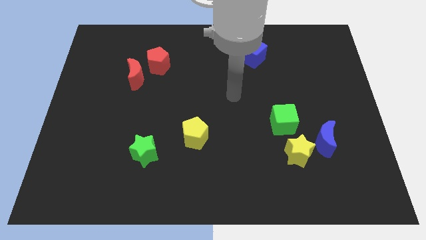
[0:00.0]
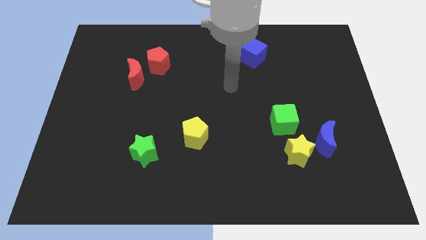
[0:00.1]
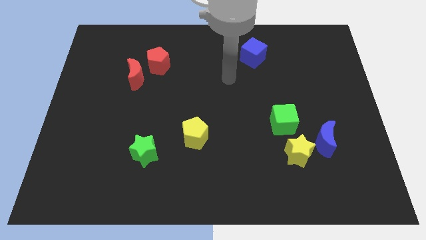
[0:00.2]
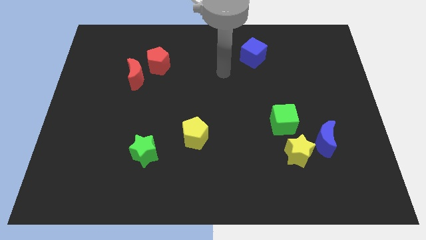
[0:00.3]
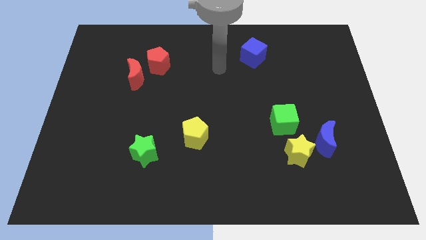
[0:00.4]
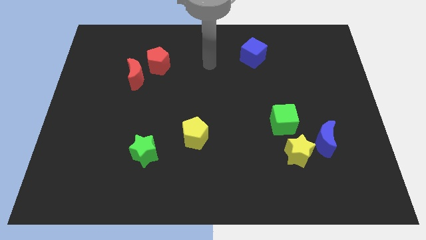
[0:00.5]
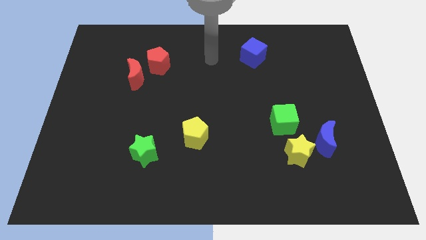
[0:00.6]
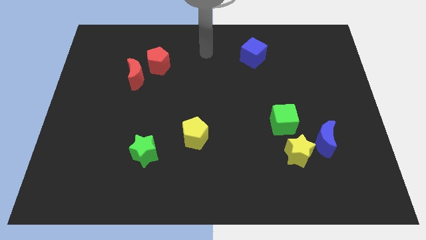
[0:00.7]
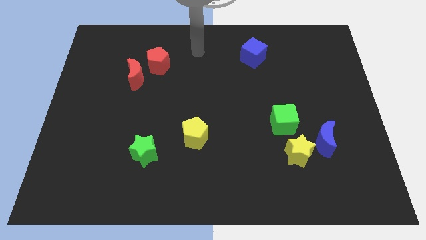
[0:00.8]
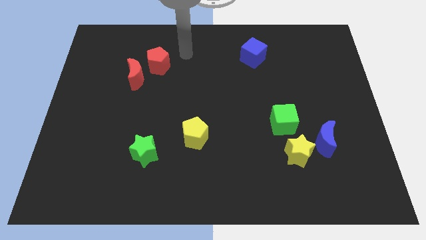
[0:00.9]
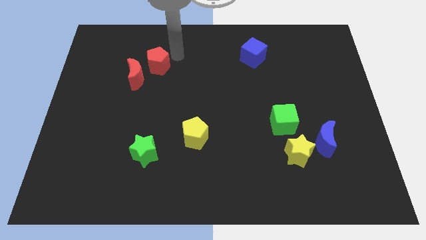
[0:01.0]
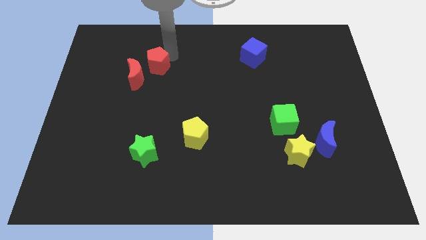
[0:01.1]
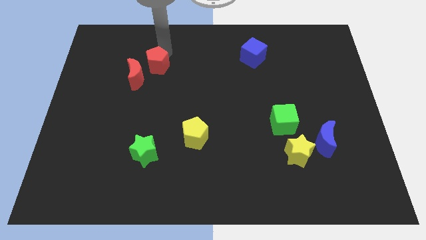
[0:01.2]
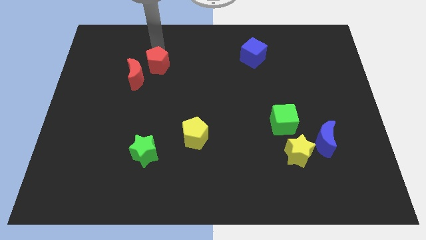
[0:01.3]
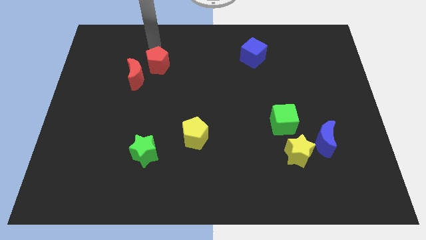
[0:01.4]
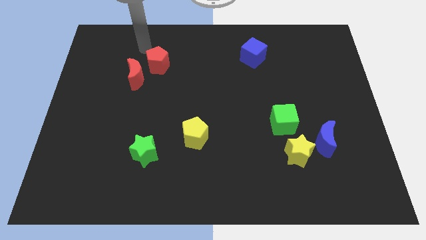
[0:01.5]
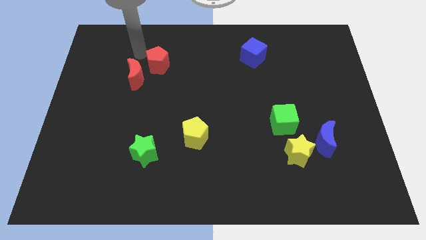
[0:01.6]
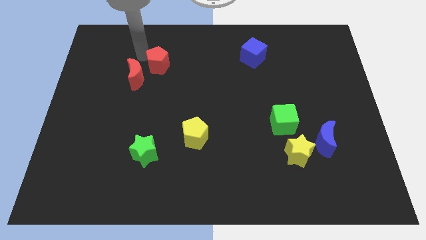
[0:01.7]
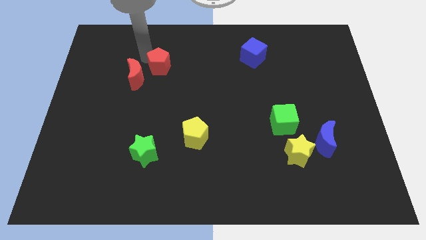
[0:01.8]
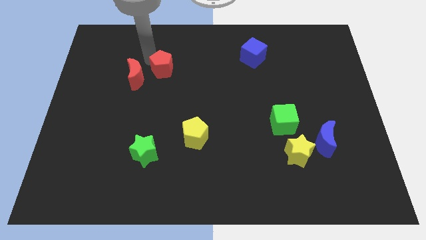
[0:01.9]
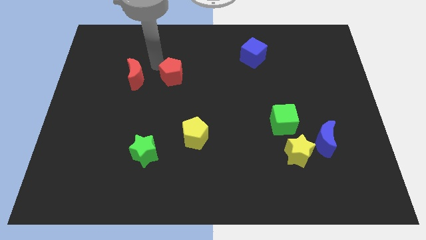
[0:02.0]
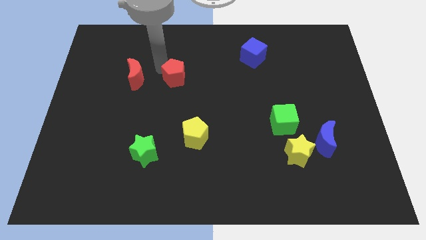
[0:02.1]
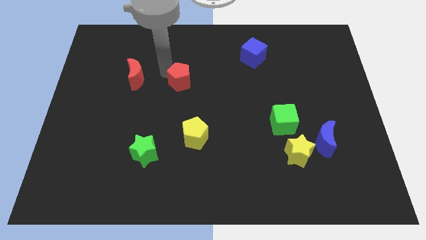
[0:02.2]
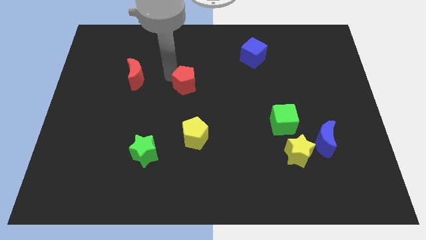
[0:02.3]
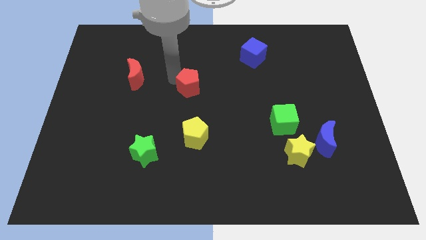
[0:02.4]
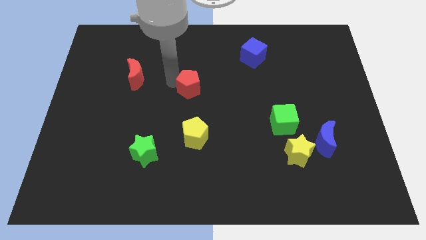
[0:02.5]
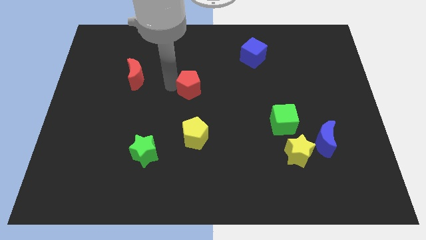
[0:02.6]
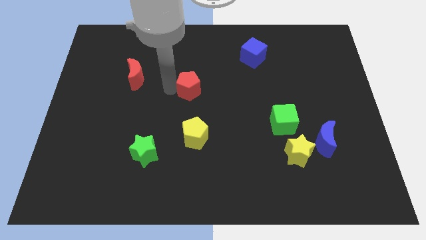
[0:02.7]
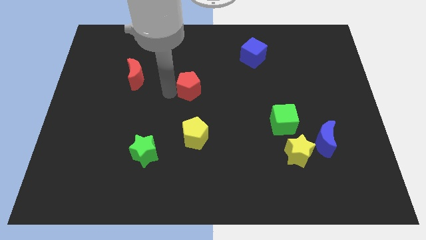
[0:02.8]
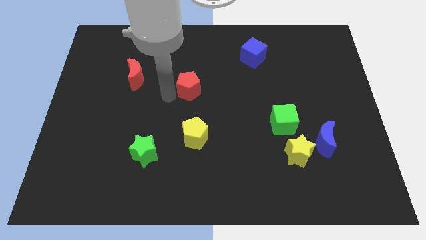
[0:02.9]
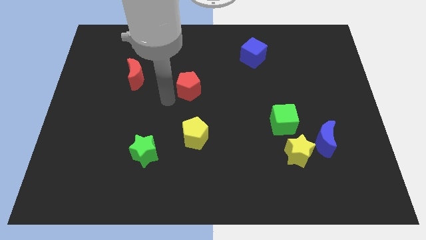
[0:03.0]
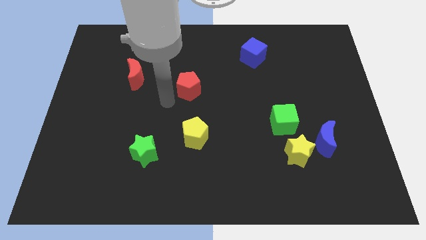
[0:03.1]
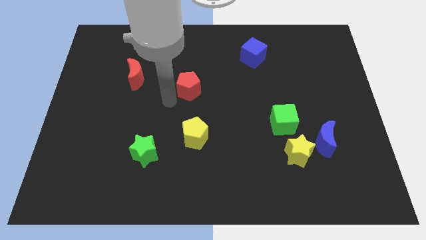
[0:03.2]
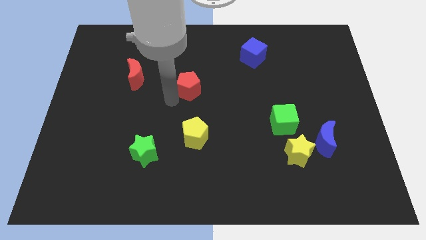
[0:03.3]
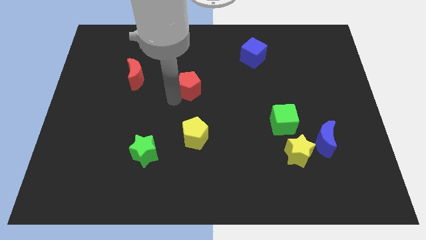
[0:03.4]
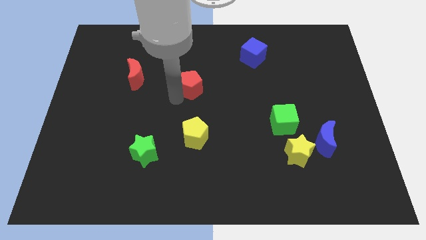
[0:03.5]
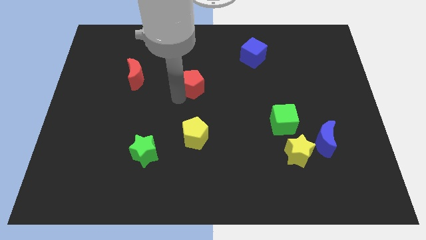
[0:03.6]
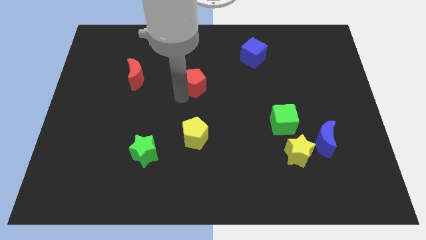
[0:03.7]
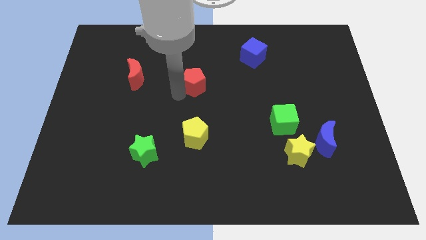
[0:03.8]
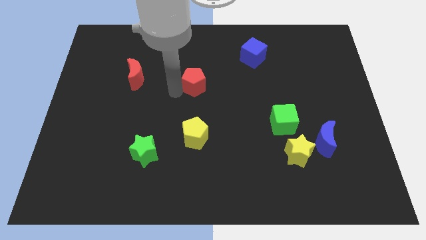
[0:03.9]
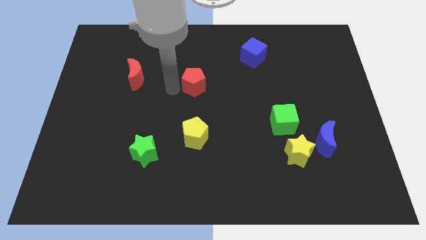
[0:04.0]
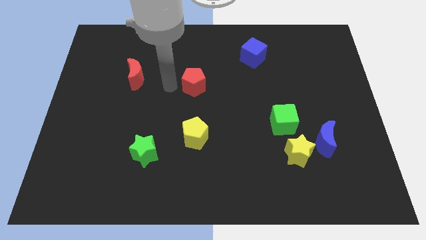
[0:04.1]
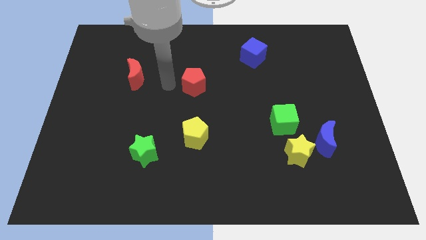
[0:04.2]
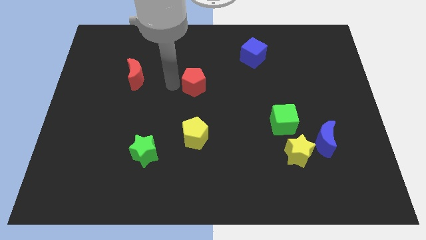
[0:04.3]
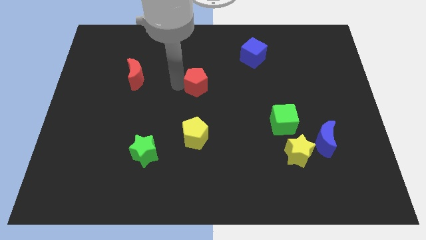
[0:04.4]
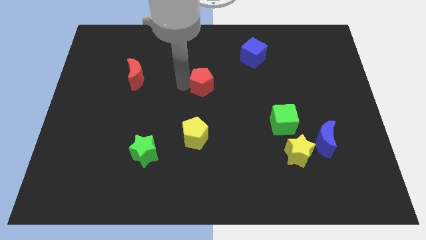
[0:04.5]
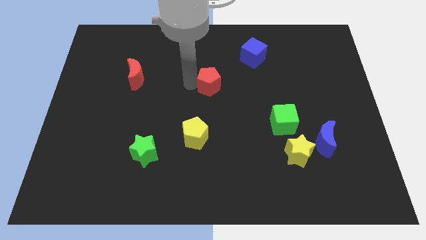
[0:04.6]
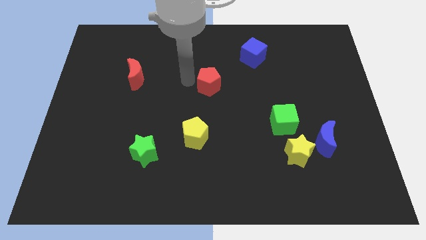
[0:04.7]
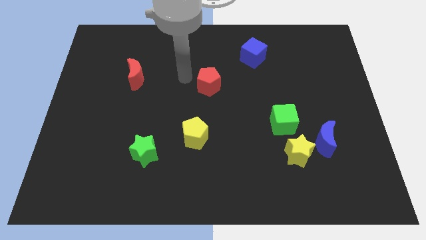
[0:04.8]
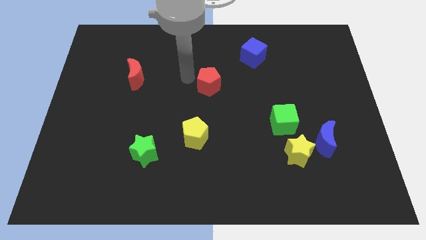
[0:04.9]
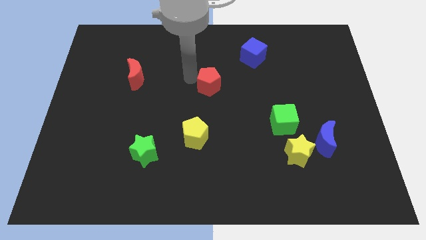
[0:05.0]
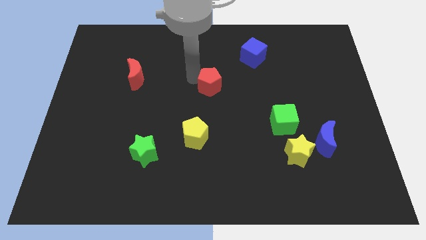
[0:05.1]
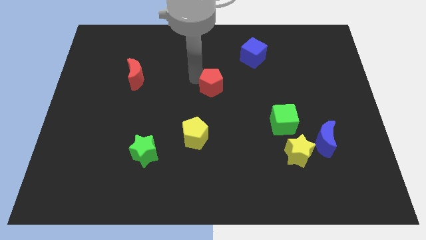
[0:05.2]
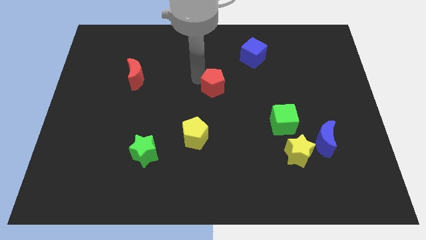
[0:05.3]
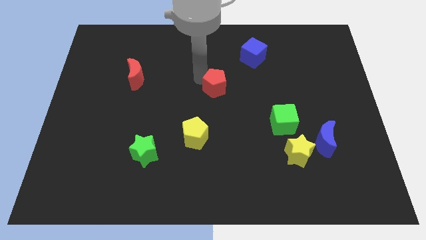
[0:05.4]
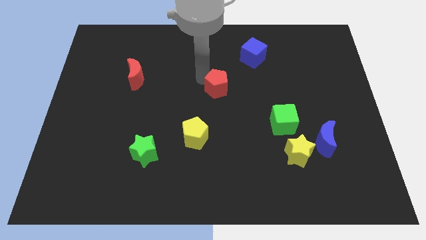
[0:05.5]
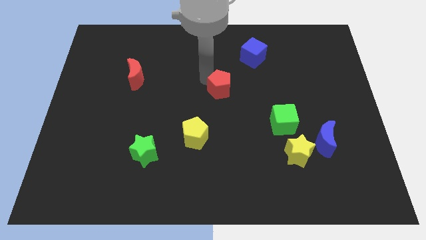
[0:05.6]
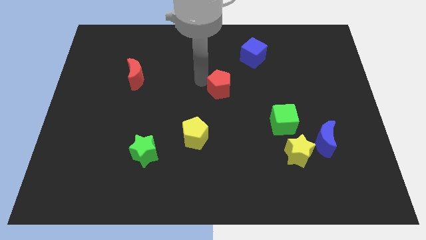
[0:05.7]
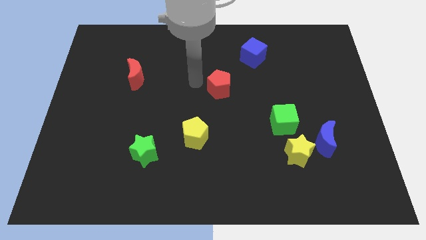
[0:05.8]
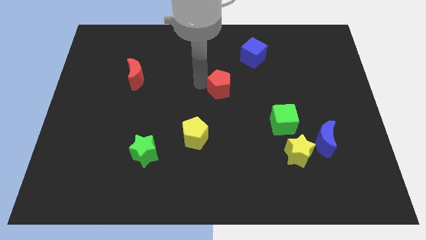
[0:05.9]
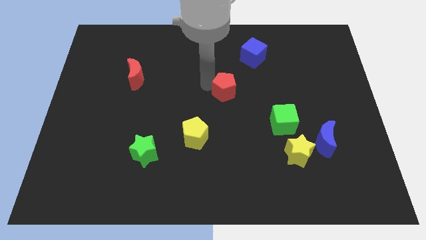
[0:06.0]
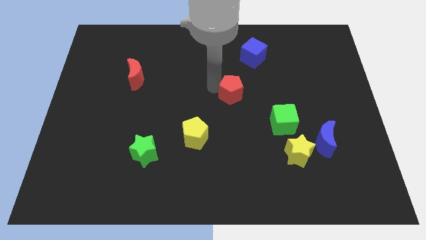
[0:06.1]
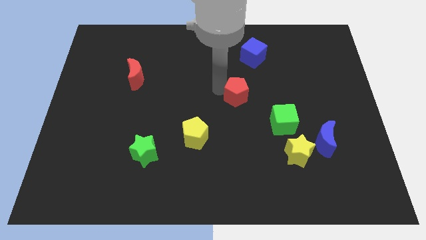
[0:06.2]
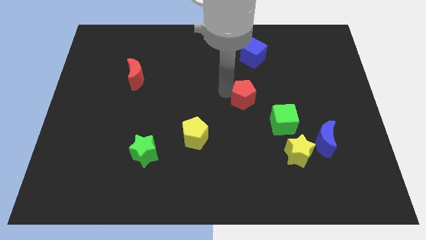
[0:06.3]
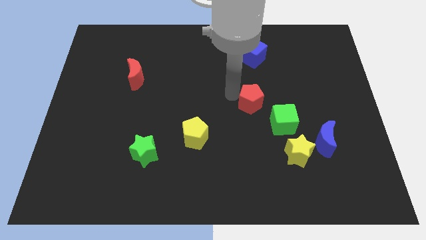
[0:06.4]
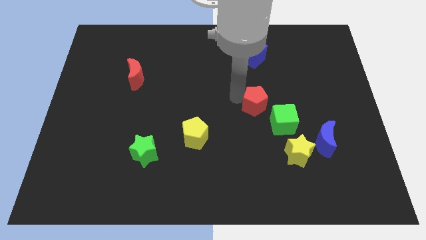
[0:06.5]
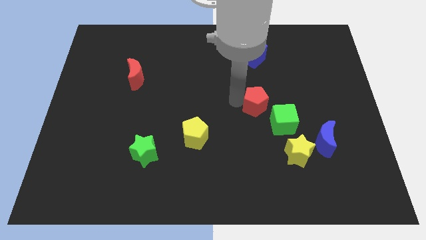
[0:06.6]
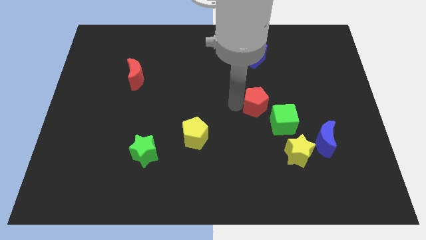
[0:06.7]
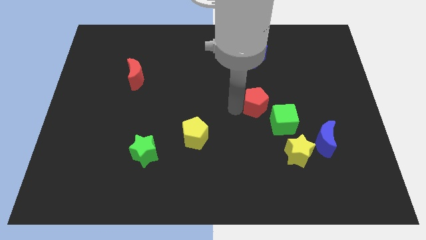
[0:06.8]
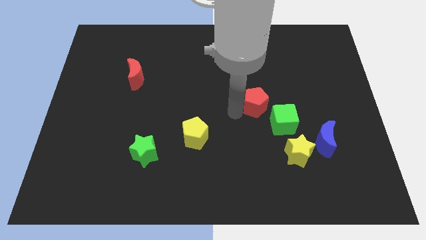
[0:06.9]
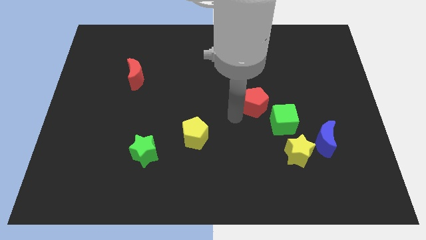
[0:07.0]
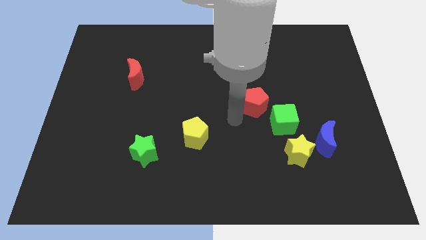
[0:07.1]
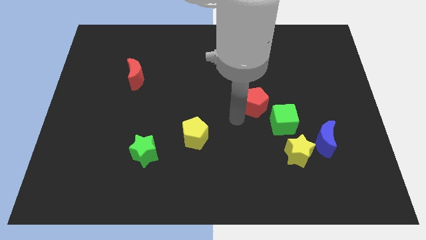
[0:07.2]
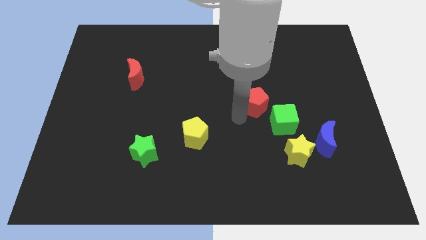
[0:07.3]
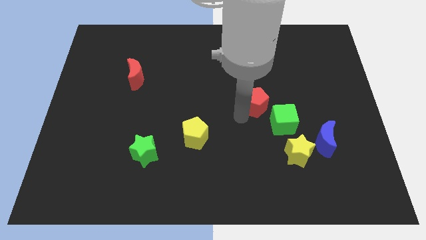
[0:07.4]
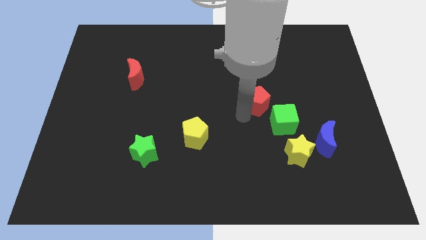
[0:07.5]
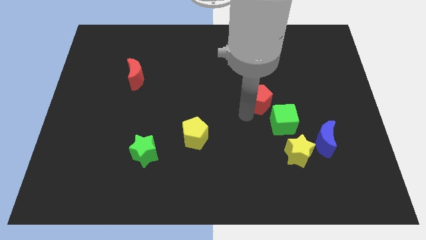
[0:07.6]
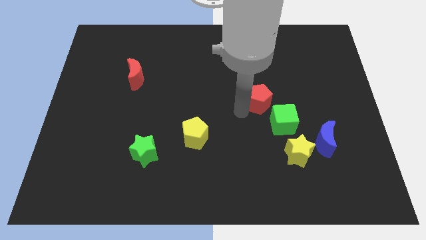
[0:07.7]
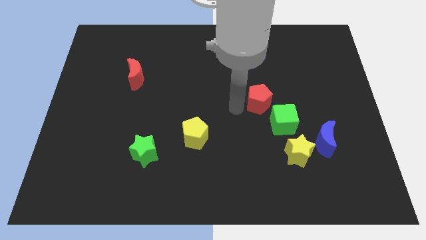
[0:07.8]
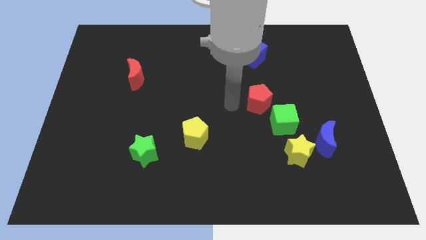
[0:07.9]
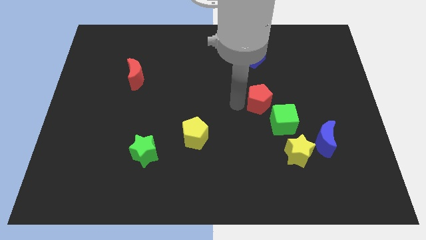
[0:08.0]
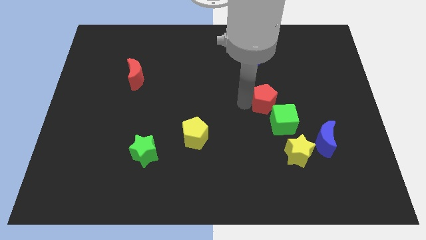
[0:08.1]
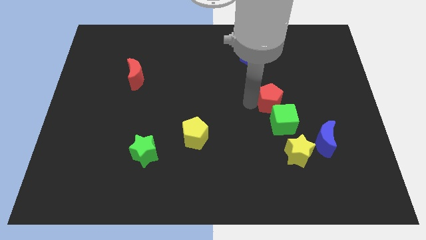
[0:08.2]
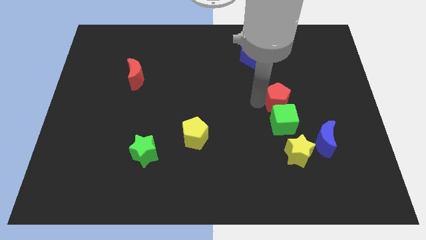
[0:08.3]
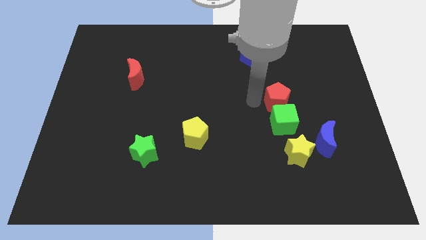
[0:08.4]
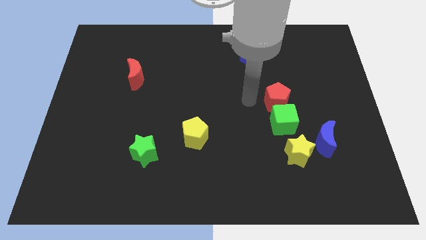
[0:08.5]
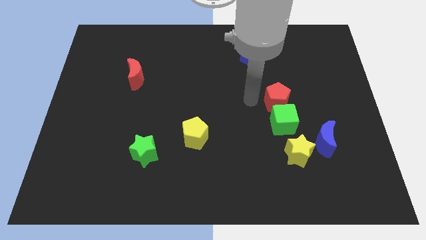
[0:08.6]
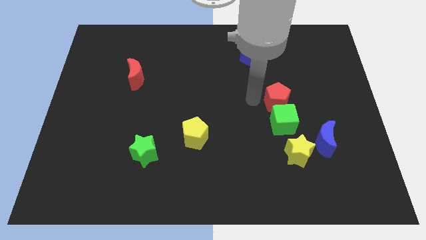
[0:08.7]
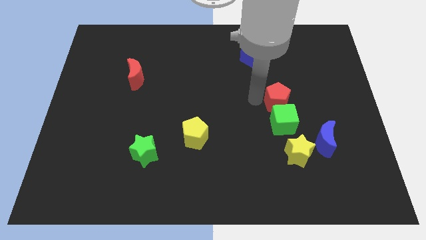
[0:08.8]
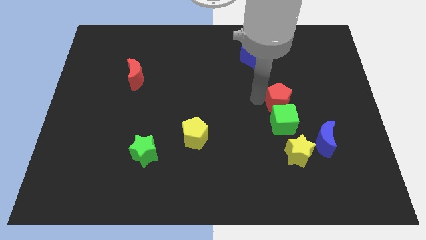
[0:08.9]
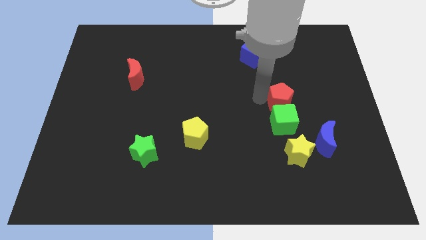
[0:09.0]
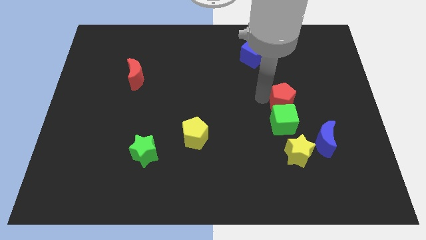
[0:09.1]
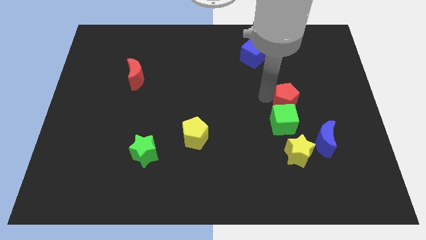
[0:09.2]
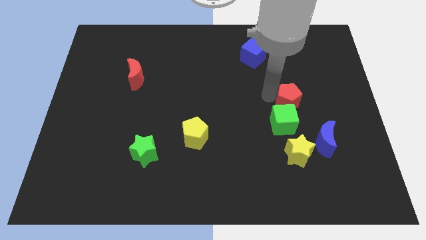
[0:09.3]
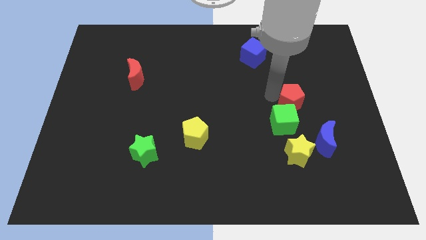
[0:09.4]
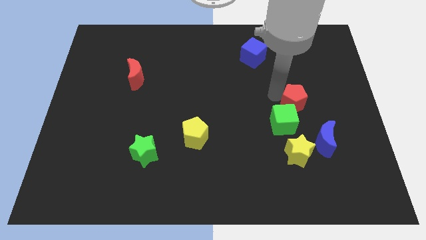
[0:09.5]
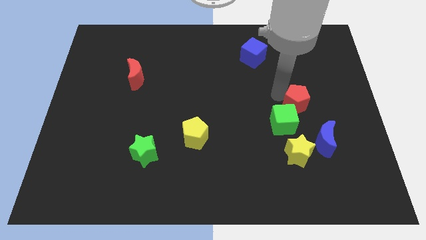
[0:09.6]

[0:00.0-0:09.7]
push the red pentagon to the top of the blue moon
